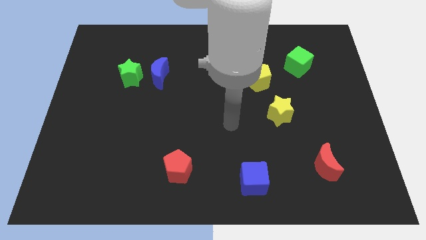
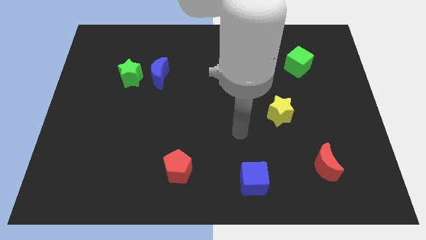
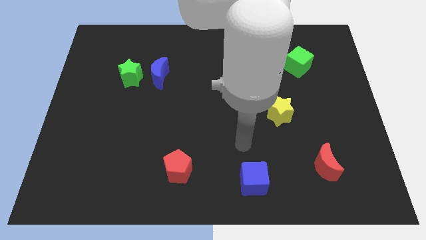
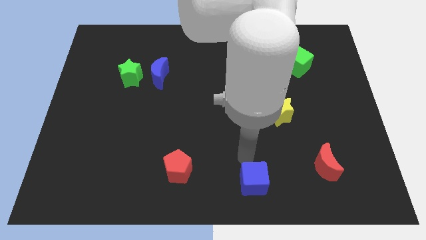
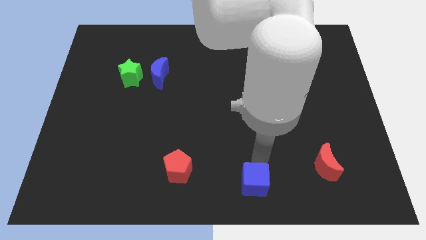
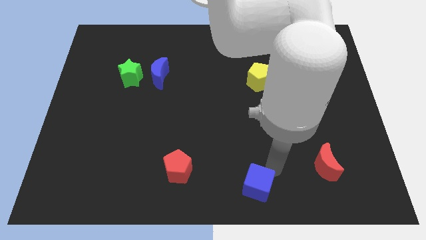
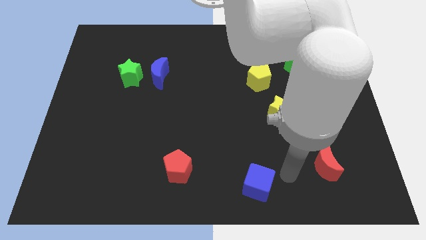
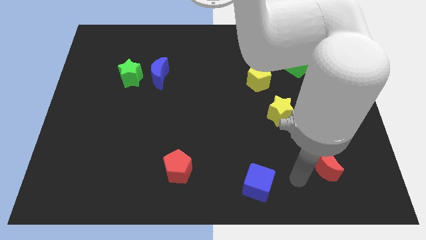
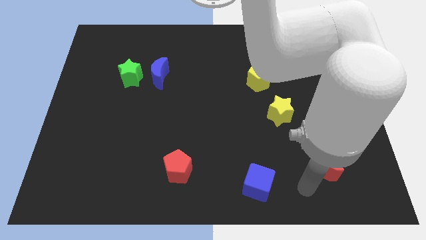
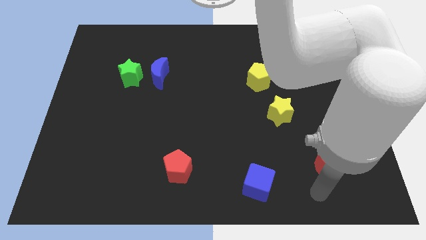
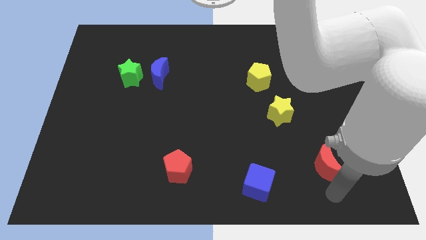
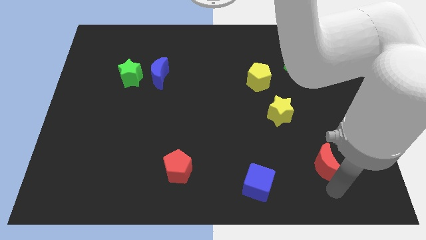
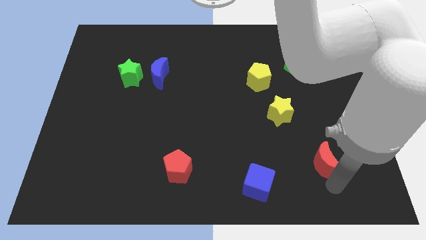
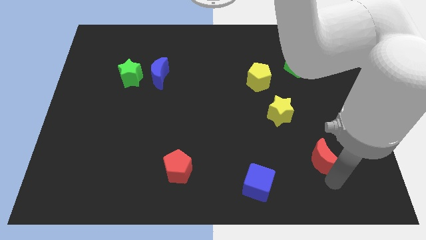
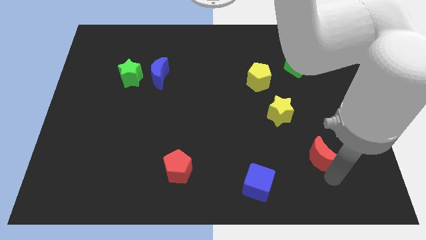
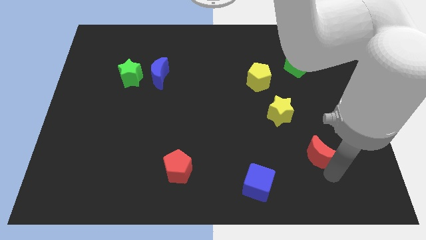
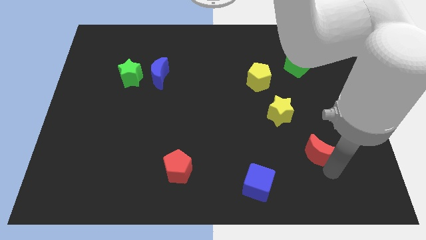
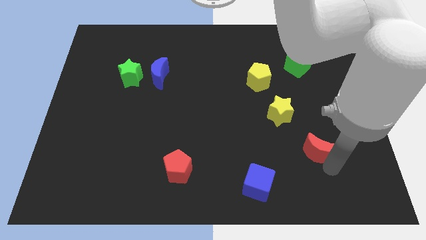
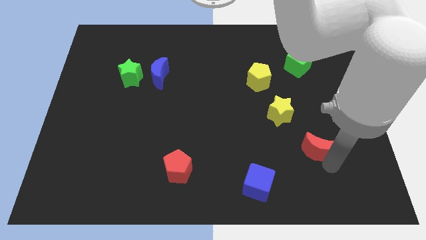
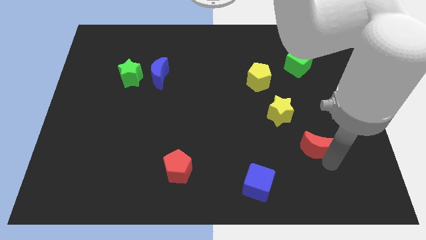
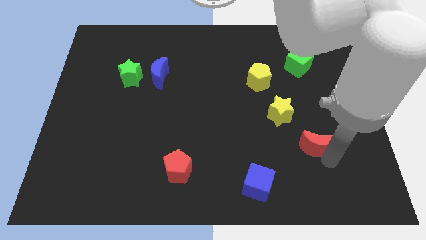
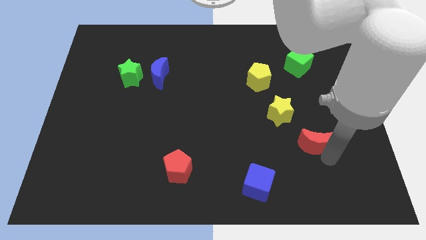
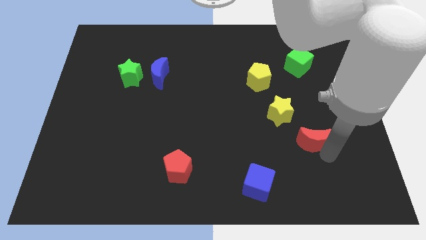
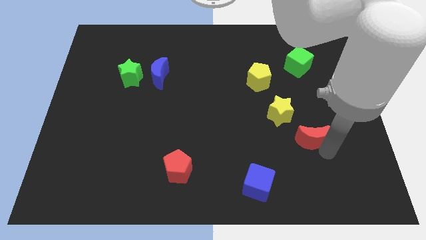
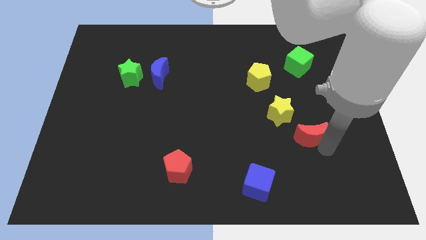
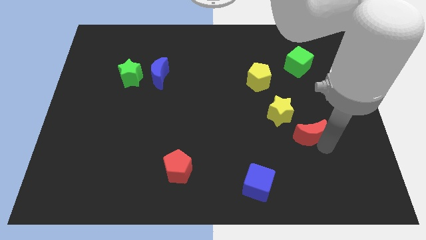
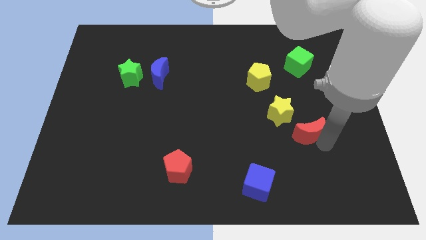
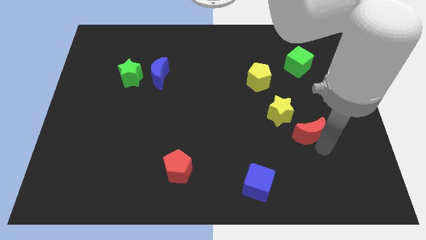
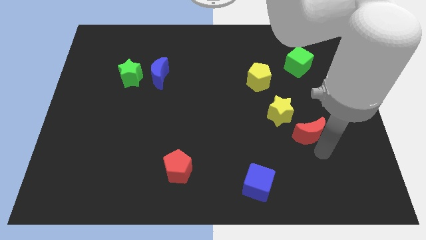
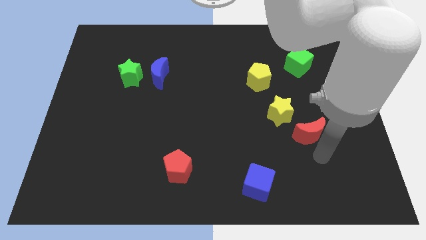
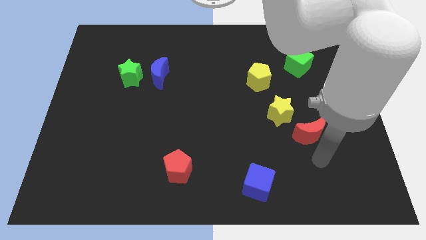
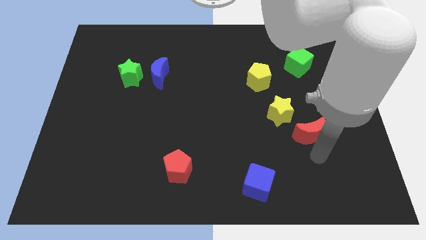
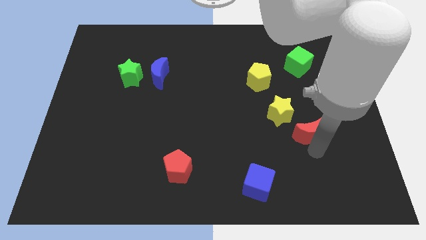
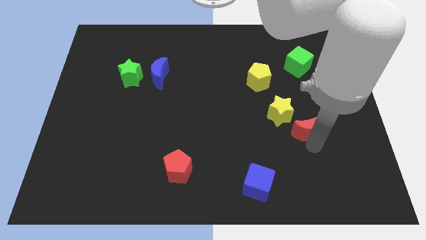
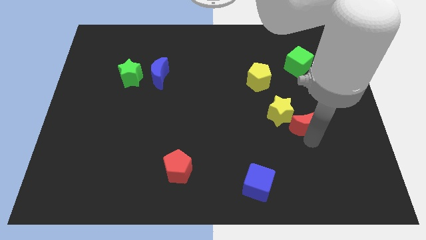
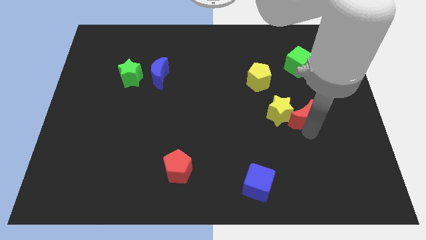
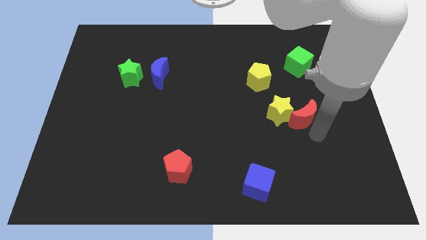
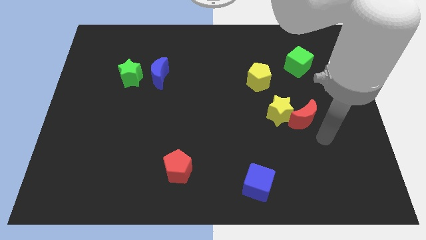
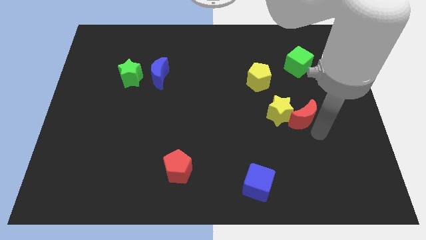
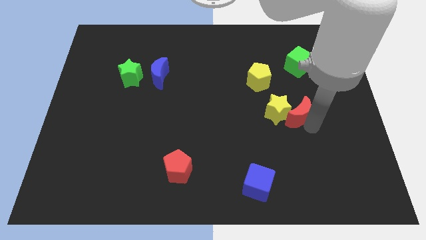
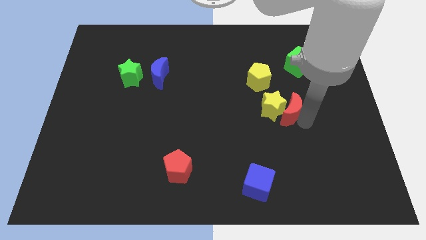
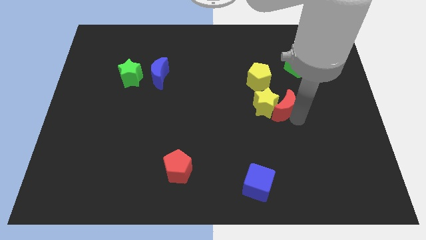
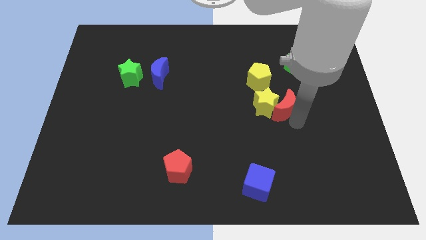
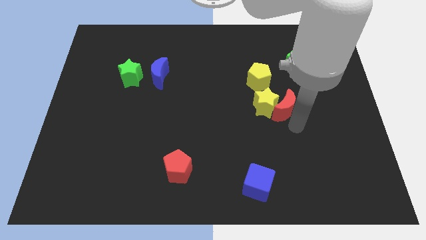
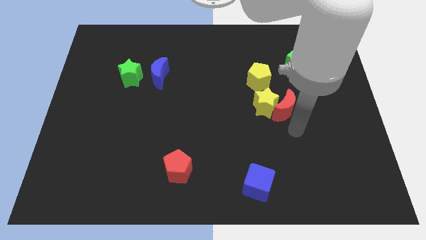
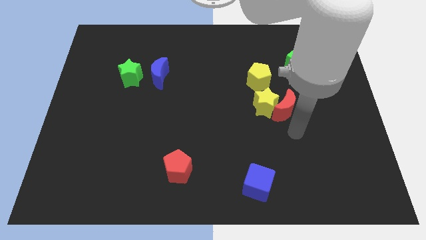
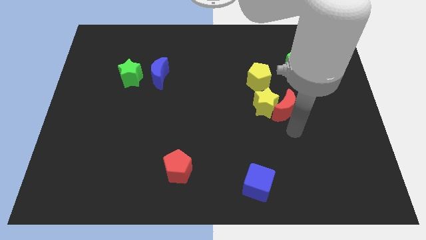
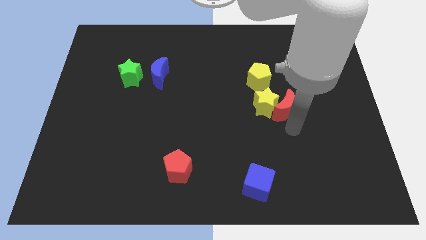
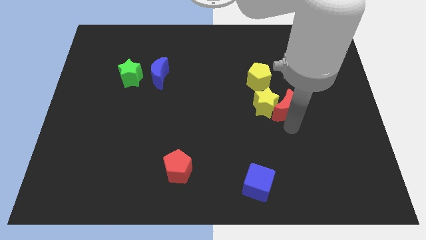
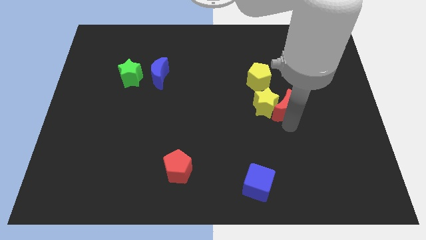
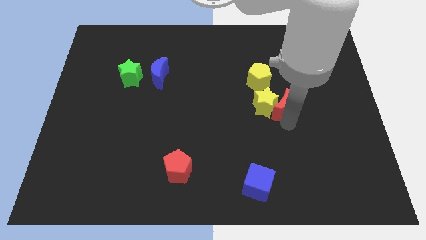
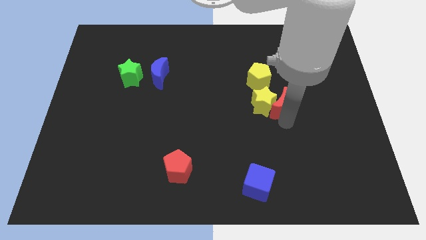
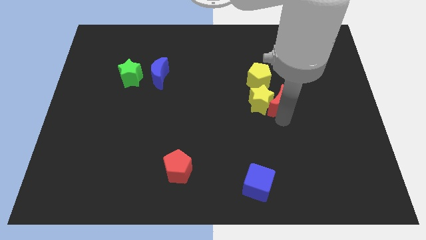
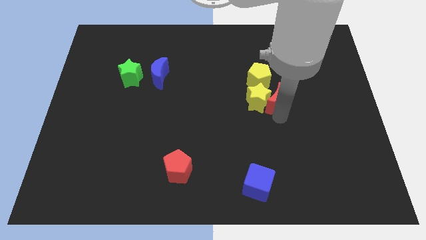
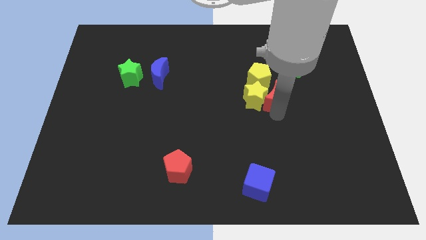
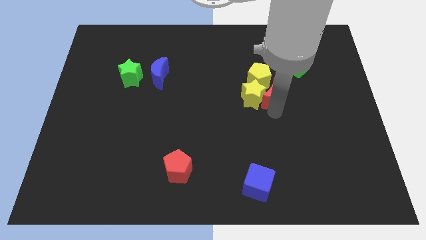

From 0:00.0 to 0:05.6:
put the red moon towards the yellow pentagon

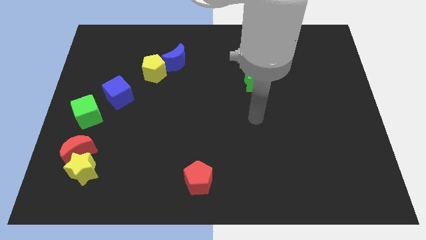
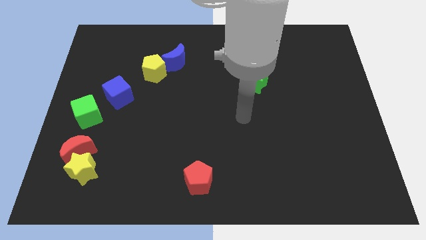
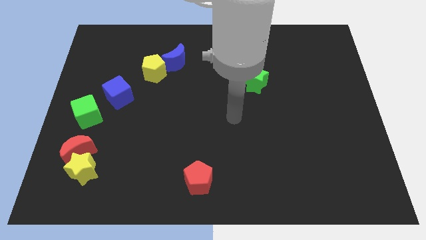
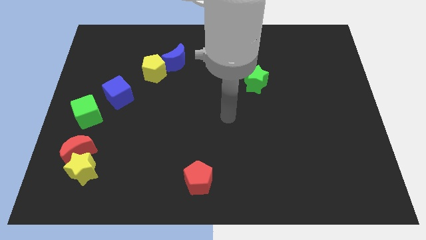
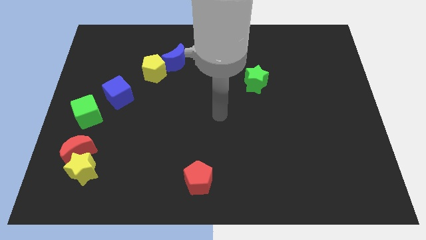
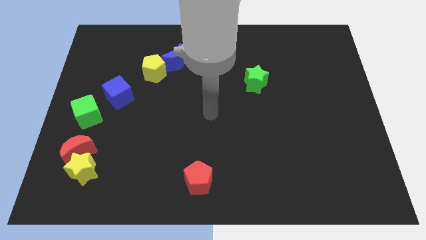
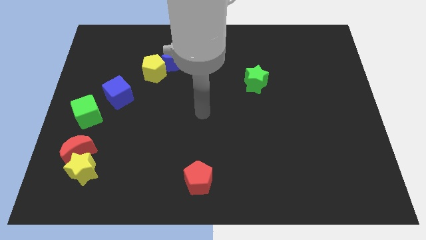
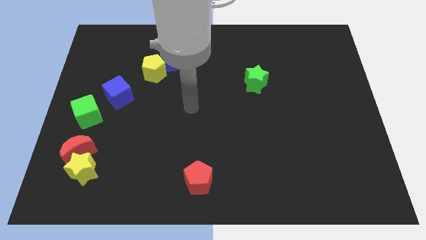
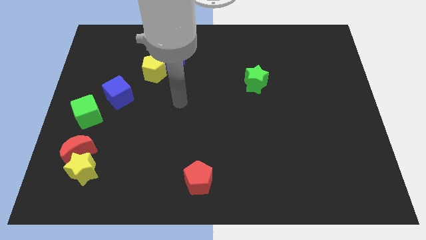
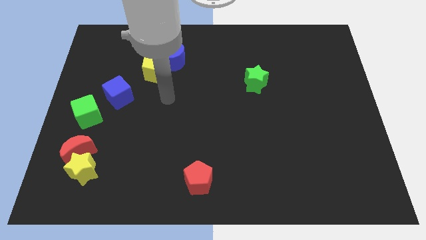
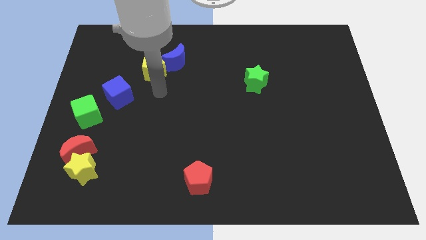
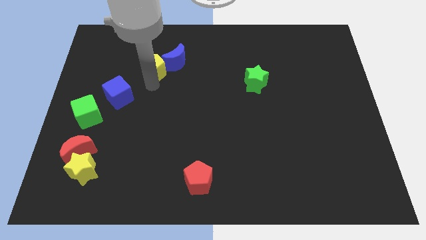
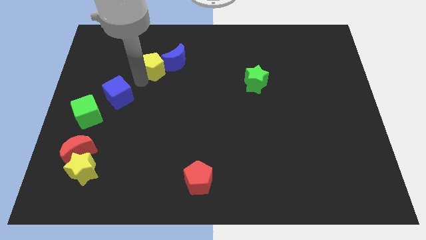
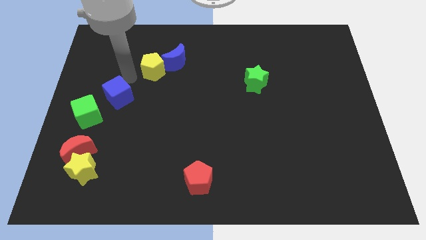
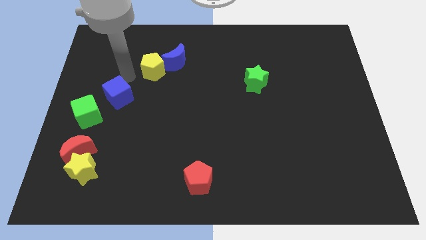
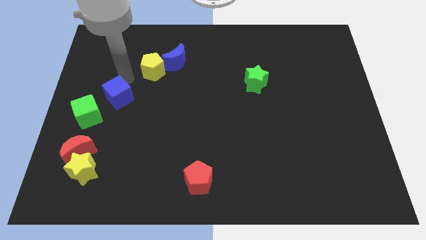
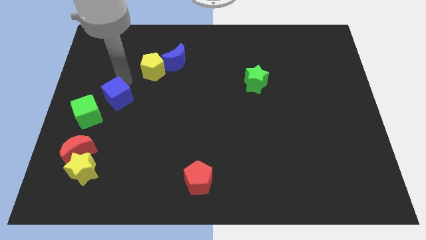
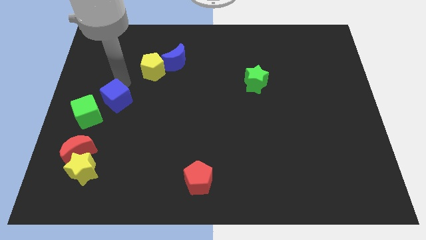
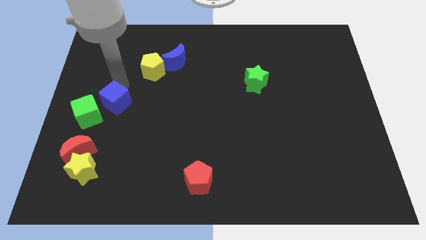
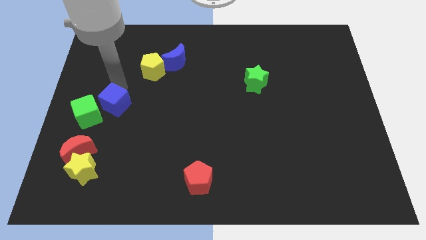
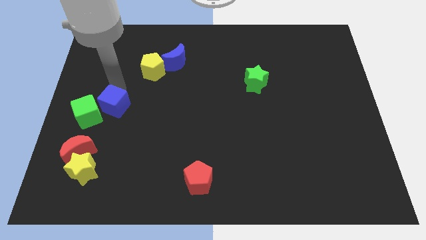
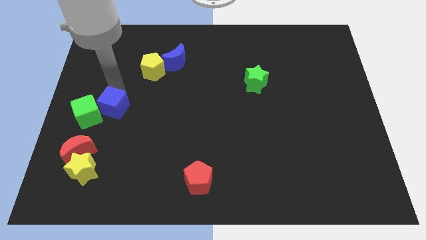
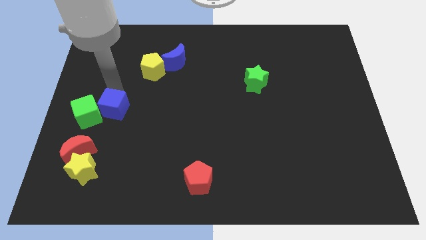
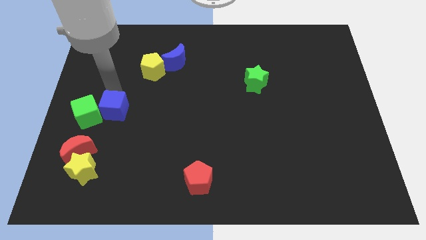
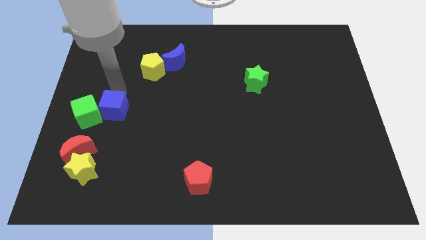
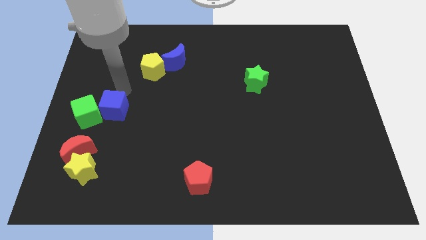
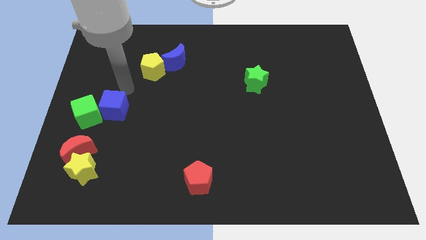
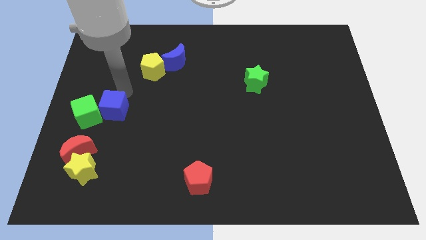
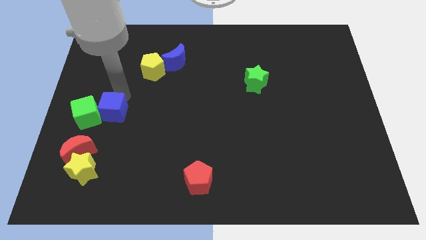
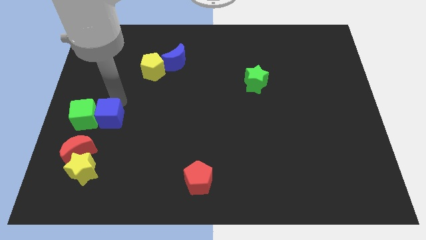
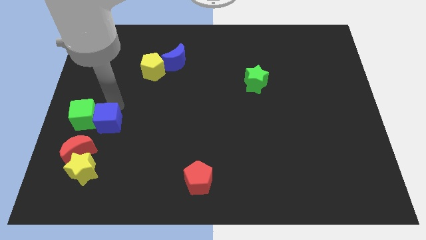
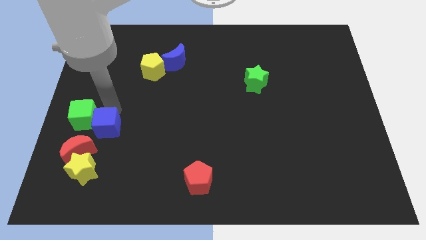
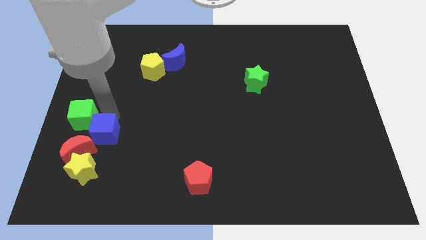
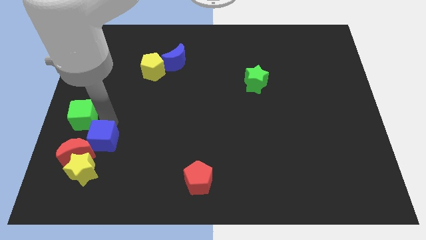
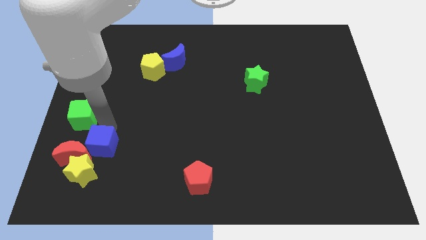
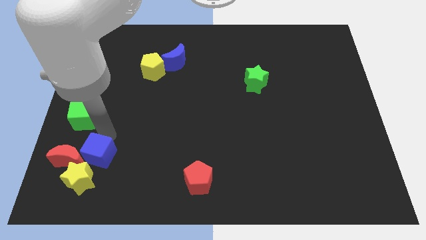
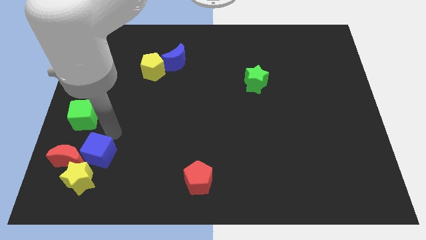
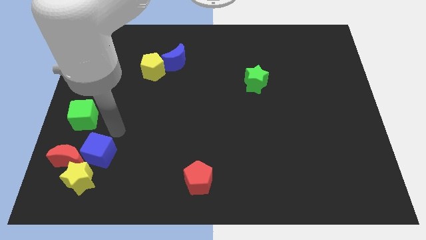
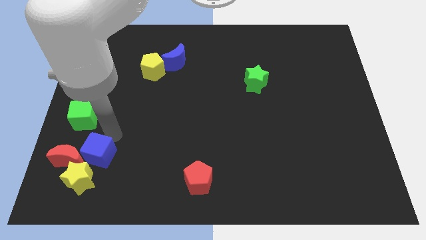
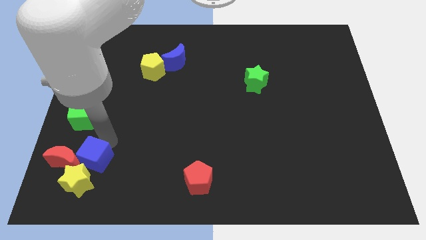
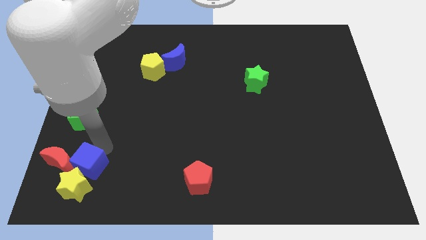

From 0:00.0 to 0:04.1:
move the blue cube to the yellow star
